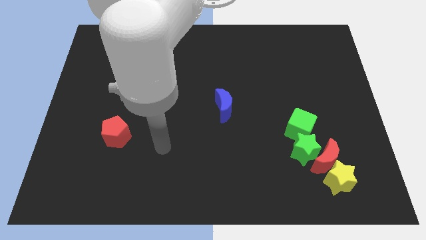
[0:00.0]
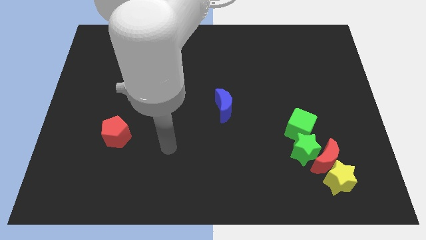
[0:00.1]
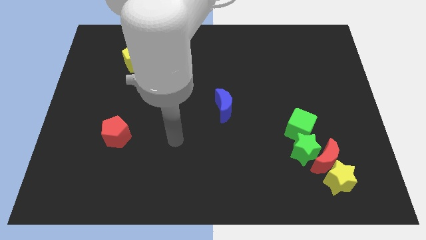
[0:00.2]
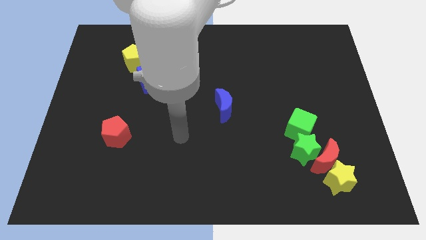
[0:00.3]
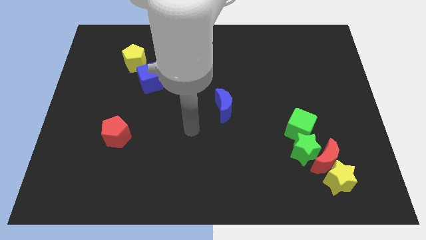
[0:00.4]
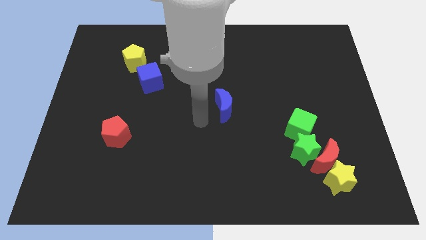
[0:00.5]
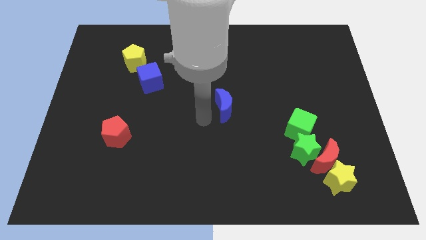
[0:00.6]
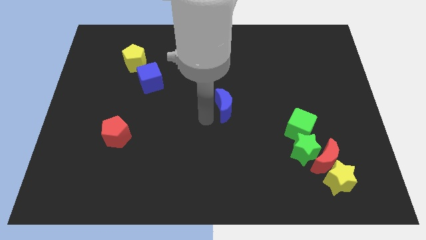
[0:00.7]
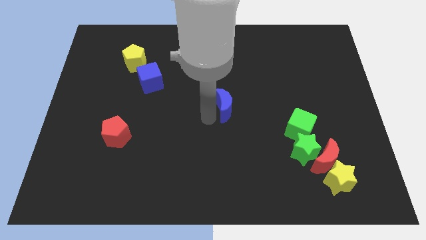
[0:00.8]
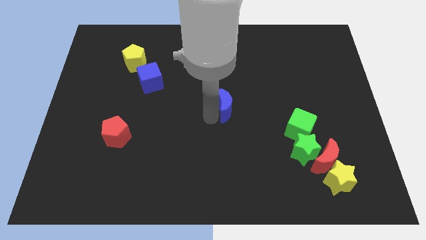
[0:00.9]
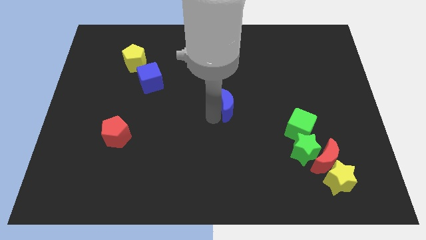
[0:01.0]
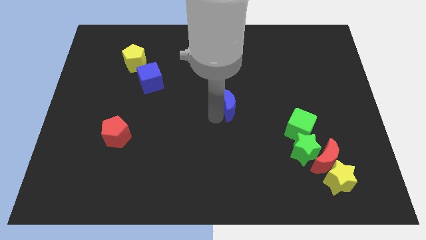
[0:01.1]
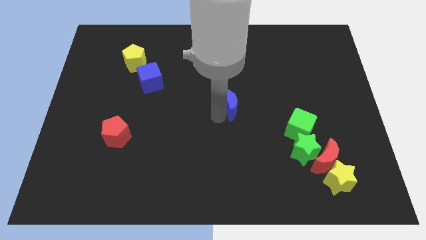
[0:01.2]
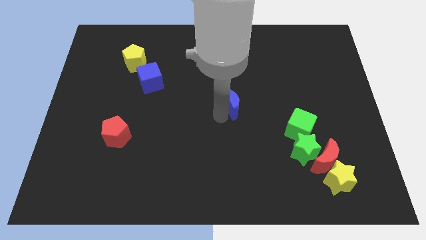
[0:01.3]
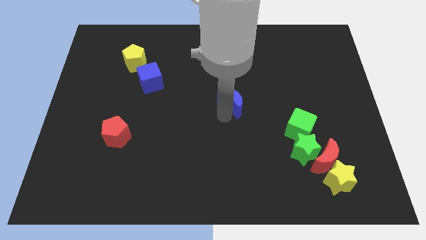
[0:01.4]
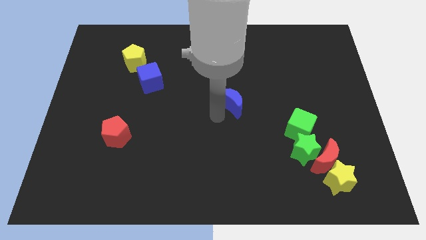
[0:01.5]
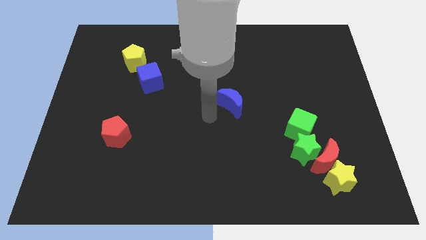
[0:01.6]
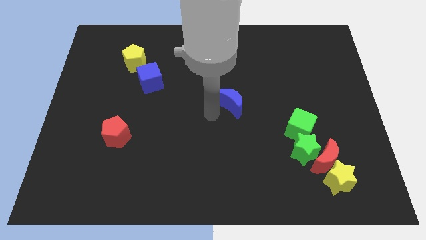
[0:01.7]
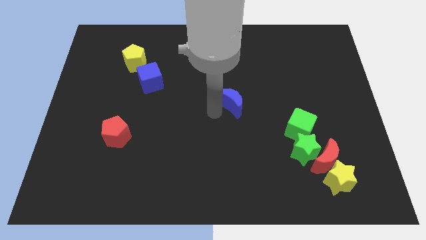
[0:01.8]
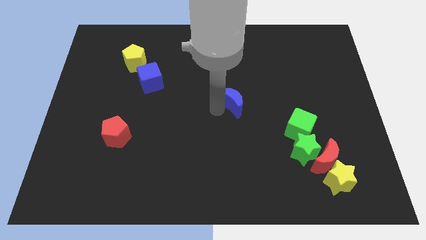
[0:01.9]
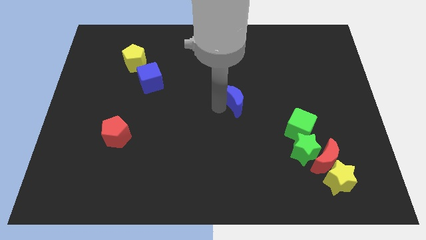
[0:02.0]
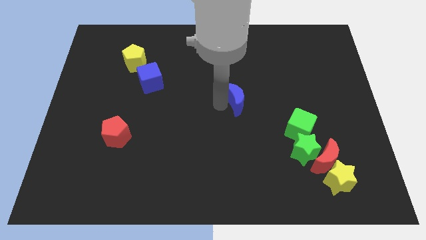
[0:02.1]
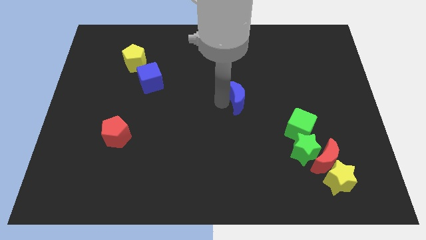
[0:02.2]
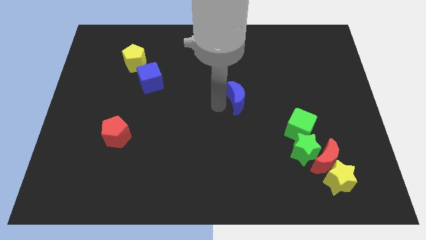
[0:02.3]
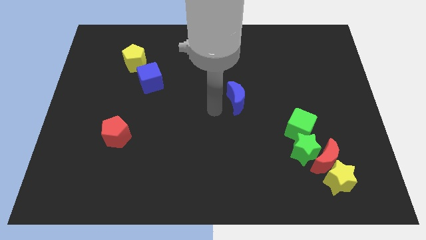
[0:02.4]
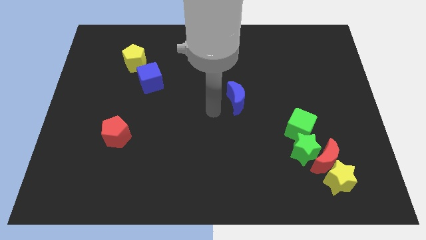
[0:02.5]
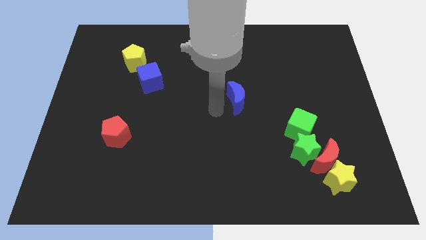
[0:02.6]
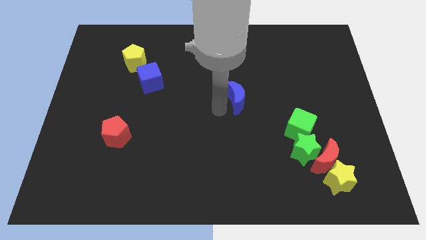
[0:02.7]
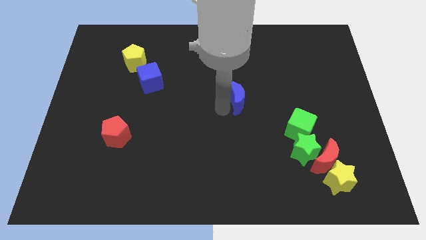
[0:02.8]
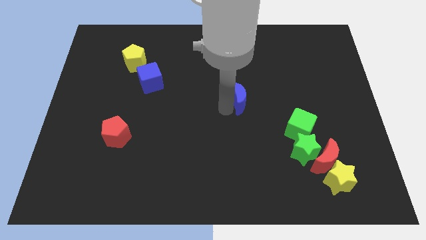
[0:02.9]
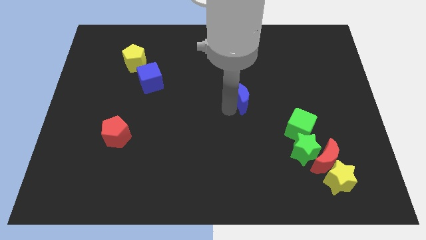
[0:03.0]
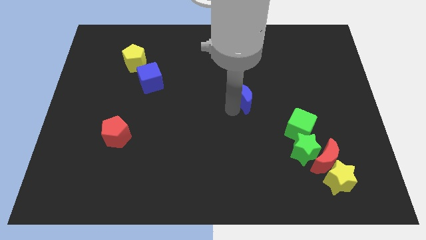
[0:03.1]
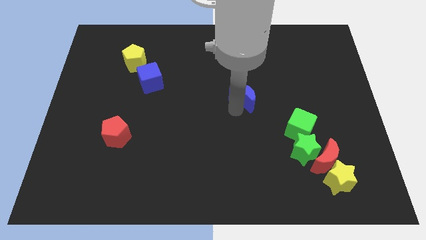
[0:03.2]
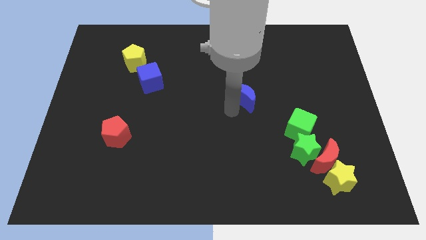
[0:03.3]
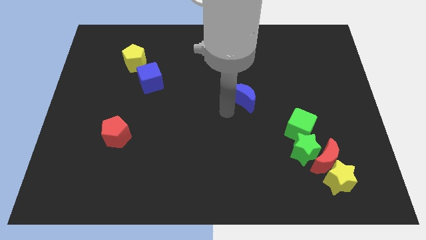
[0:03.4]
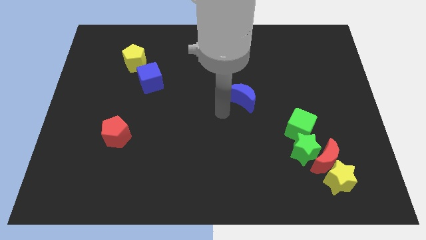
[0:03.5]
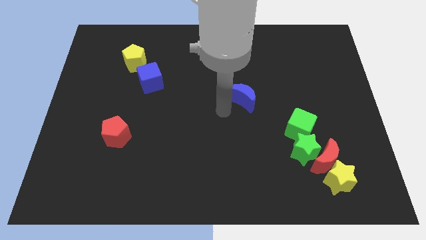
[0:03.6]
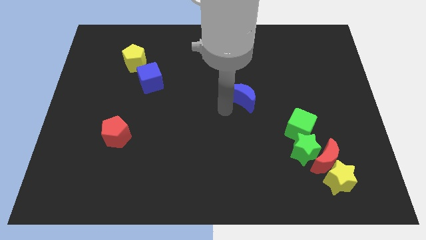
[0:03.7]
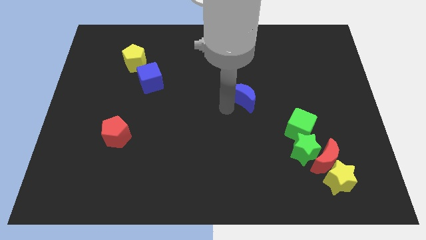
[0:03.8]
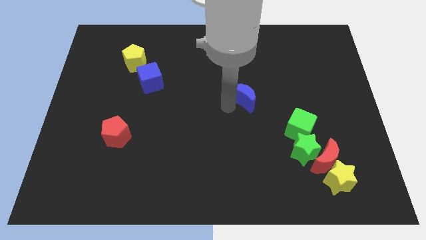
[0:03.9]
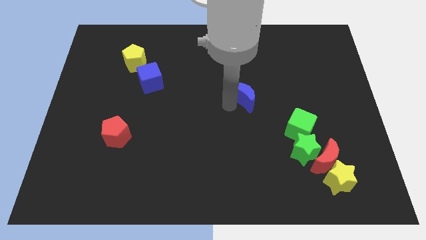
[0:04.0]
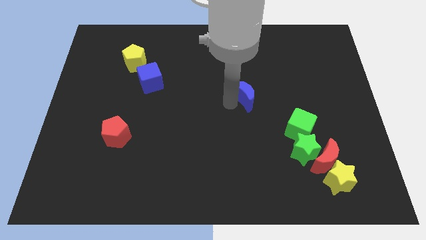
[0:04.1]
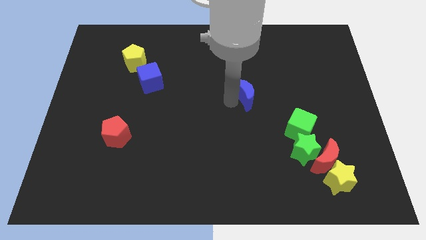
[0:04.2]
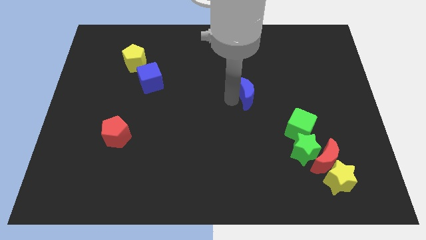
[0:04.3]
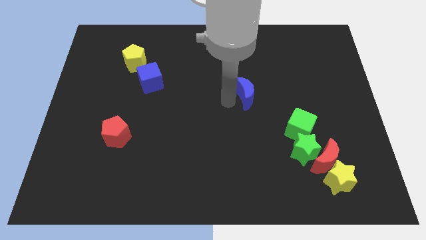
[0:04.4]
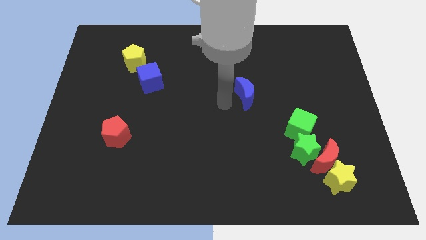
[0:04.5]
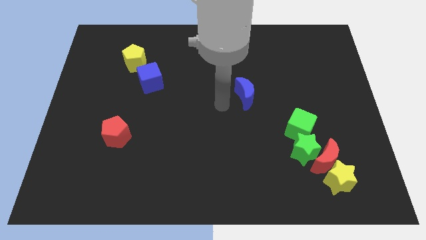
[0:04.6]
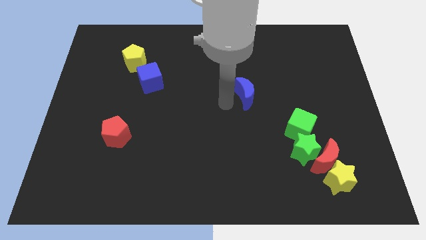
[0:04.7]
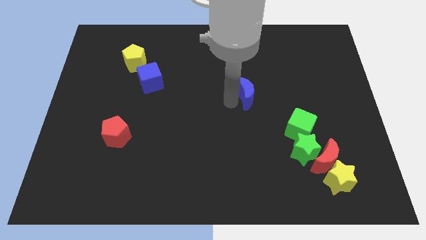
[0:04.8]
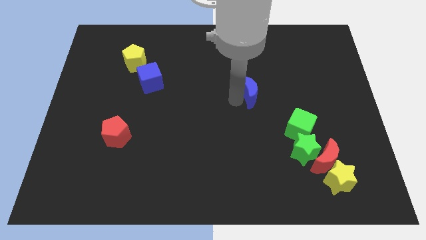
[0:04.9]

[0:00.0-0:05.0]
move the blue moon a bit diagonally up and to the right

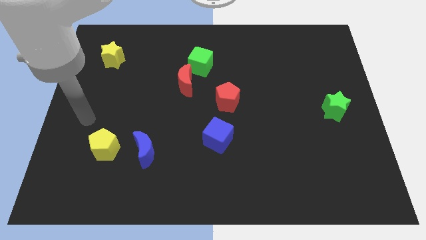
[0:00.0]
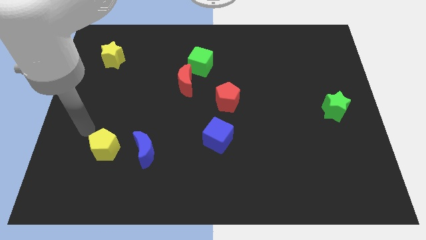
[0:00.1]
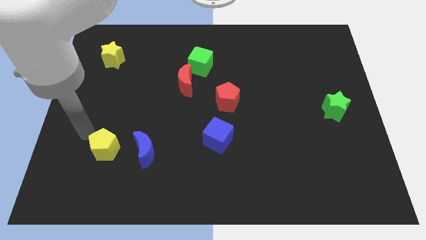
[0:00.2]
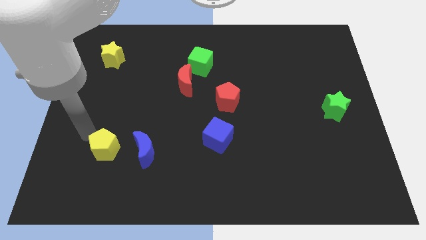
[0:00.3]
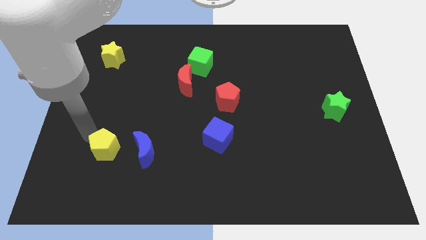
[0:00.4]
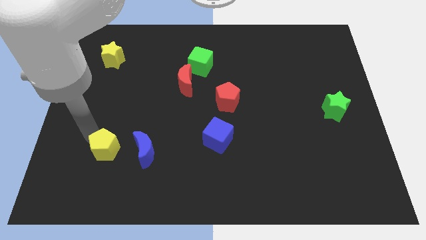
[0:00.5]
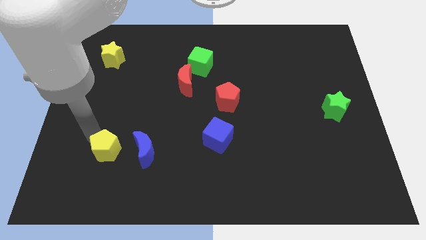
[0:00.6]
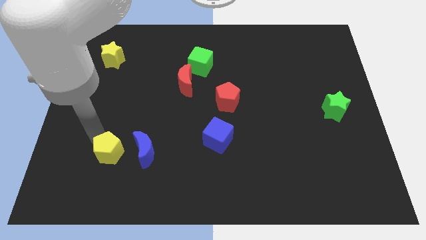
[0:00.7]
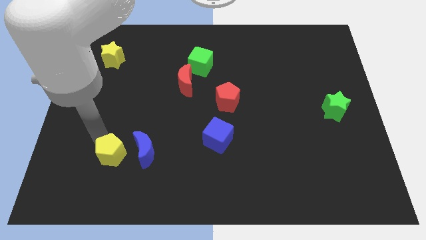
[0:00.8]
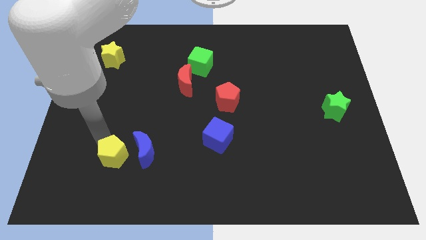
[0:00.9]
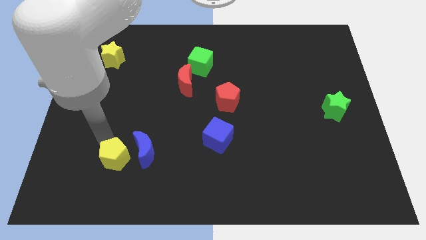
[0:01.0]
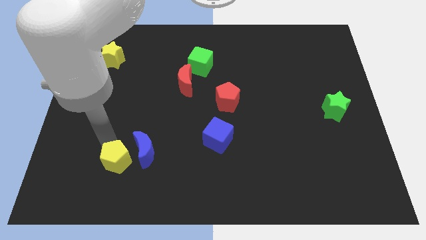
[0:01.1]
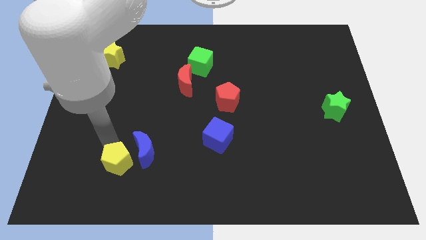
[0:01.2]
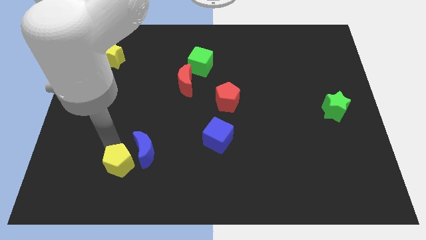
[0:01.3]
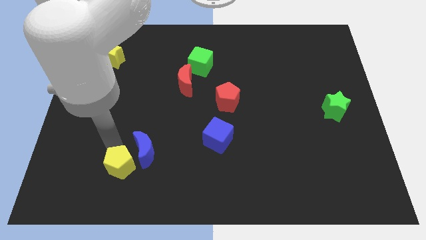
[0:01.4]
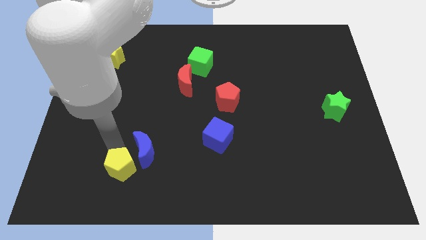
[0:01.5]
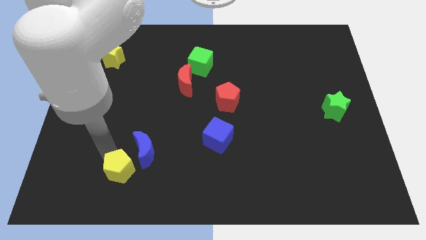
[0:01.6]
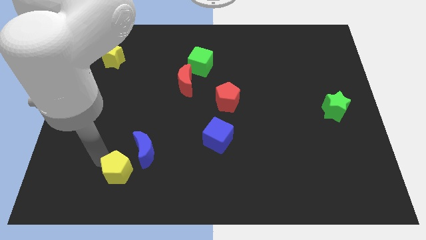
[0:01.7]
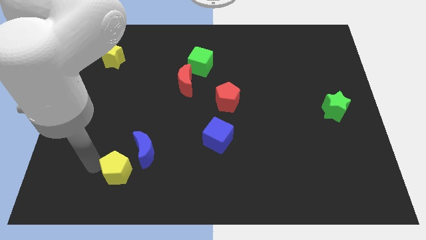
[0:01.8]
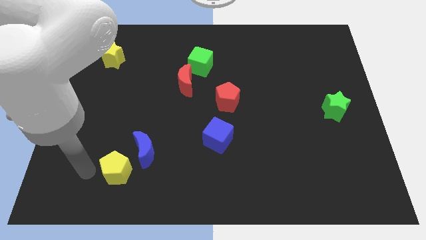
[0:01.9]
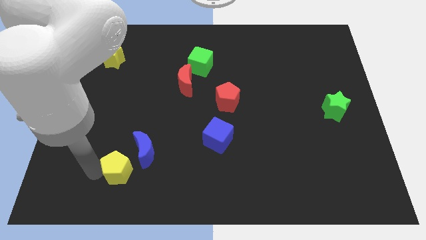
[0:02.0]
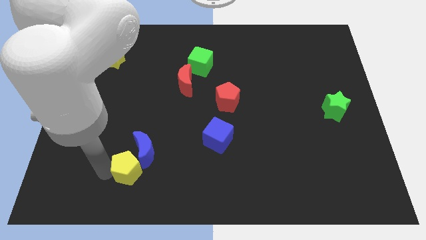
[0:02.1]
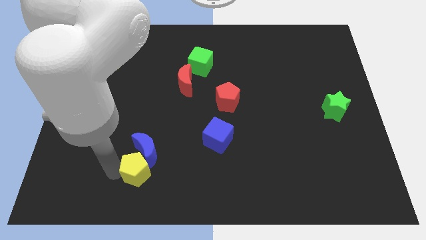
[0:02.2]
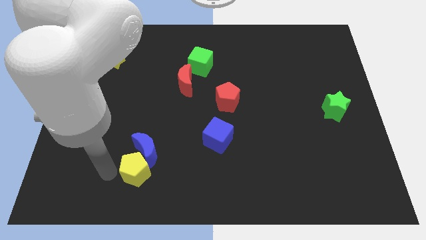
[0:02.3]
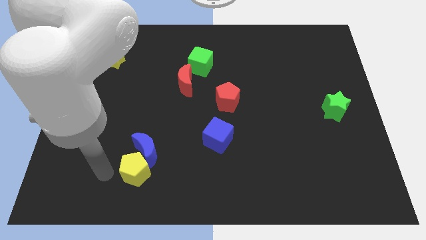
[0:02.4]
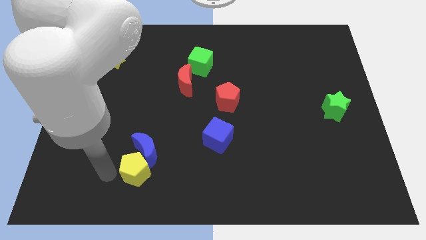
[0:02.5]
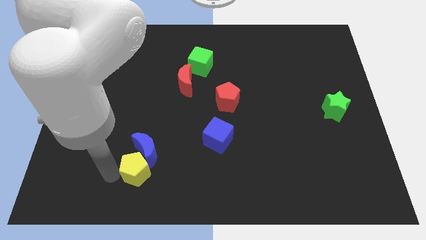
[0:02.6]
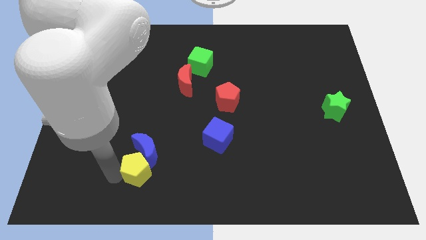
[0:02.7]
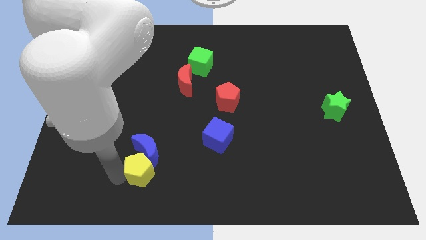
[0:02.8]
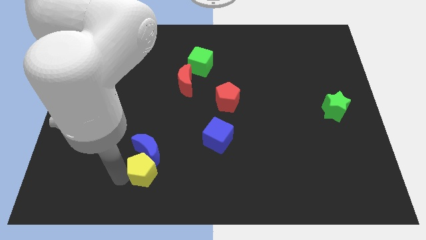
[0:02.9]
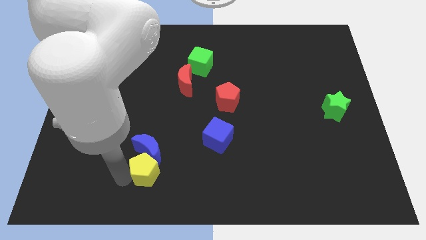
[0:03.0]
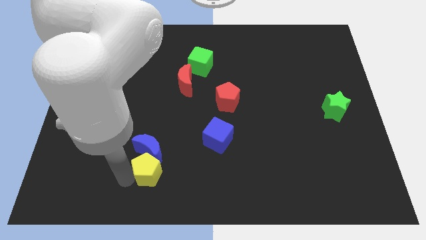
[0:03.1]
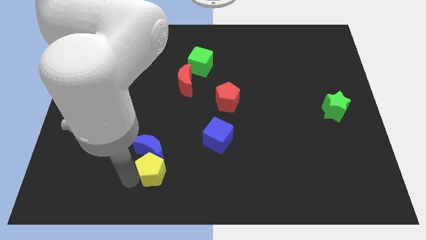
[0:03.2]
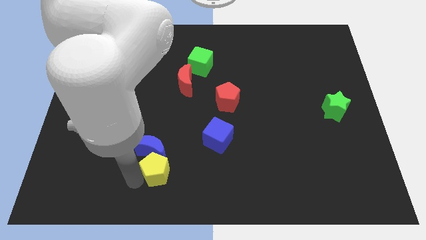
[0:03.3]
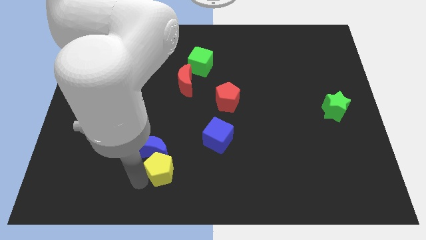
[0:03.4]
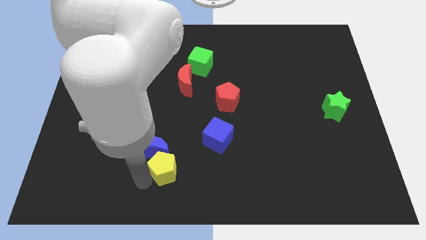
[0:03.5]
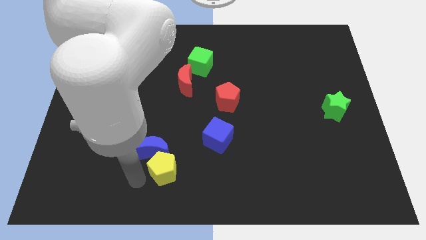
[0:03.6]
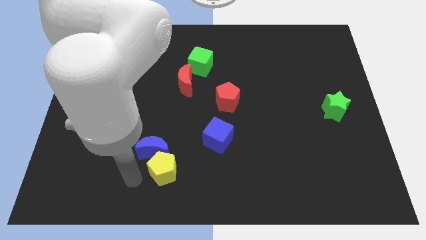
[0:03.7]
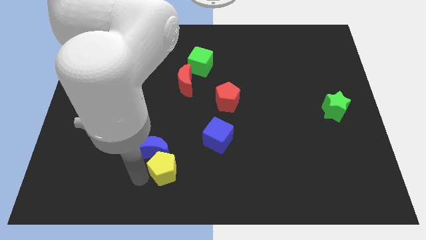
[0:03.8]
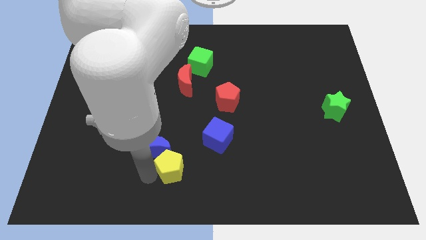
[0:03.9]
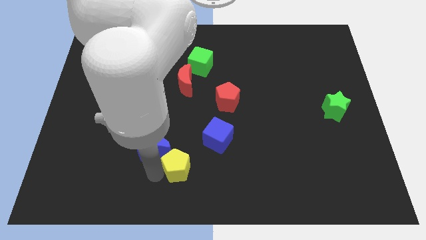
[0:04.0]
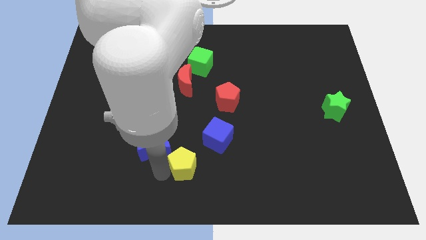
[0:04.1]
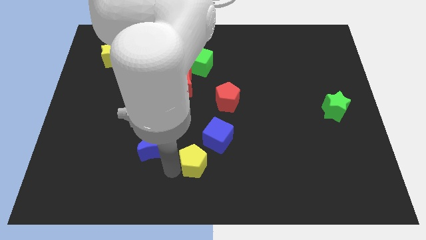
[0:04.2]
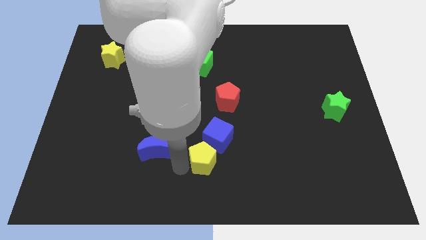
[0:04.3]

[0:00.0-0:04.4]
move the yellow pentagon to the right
